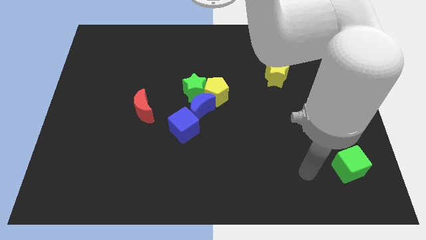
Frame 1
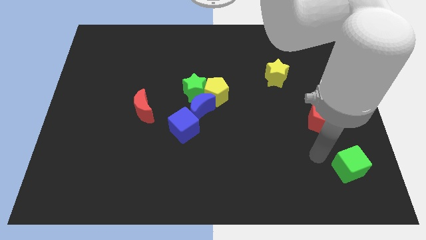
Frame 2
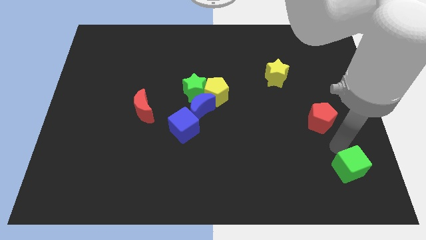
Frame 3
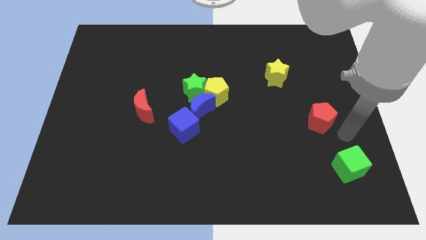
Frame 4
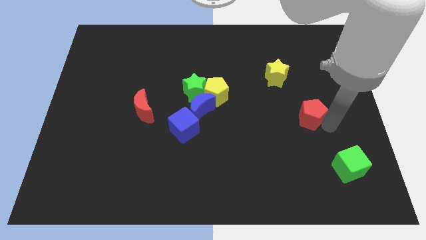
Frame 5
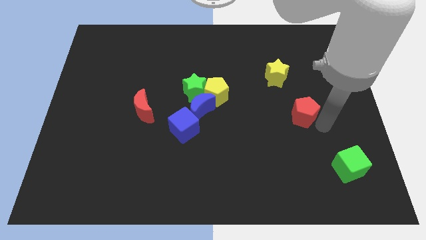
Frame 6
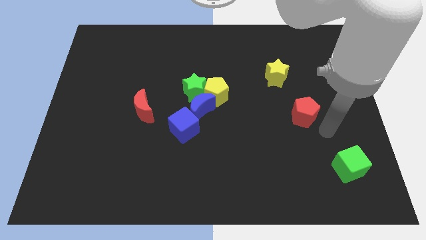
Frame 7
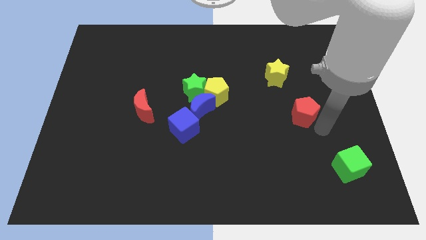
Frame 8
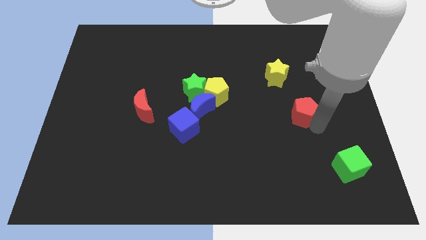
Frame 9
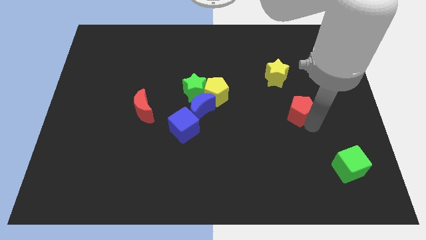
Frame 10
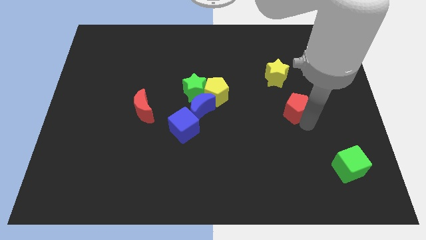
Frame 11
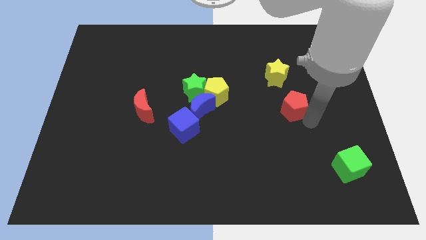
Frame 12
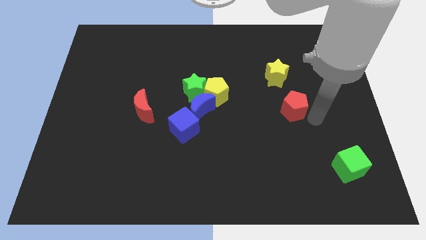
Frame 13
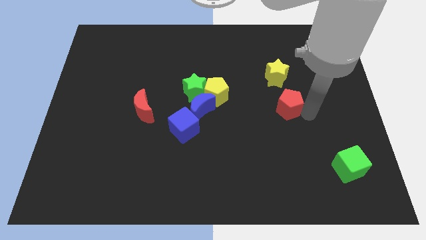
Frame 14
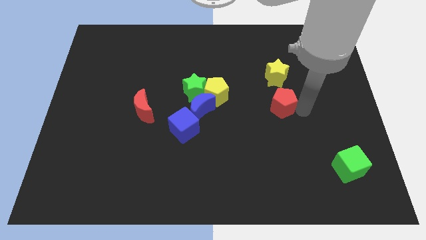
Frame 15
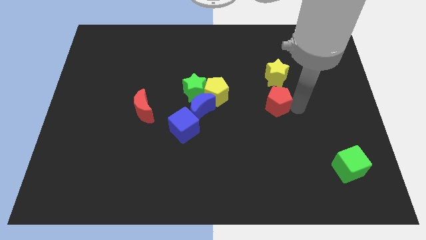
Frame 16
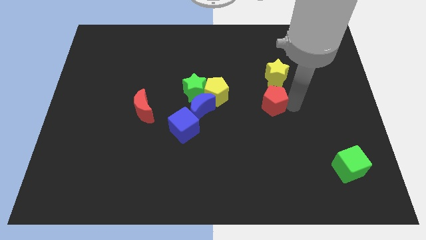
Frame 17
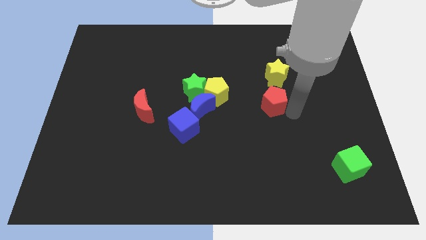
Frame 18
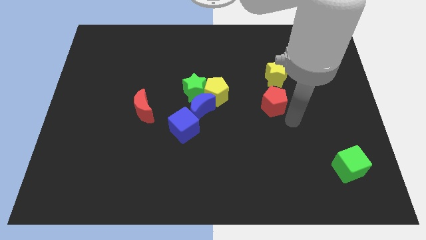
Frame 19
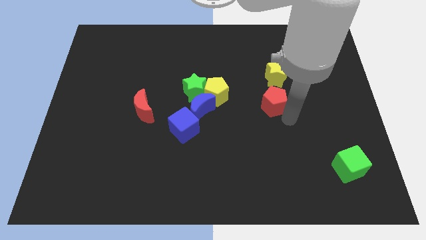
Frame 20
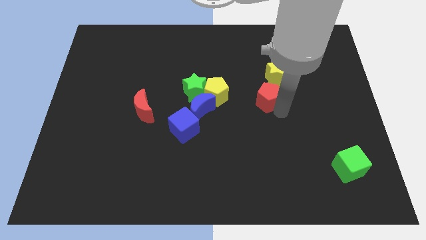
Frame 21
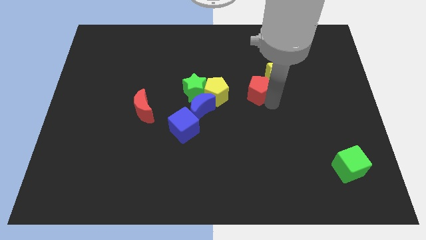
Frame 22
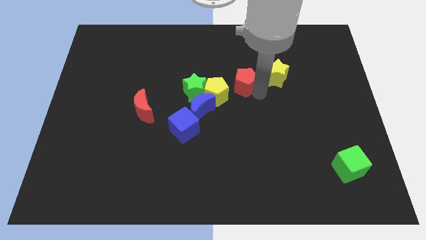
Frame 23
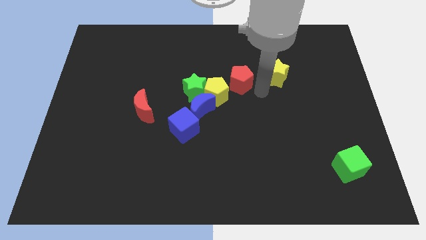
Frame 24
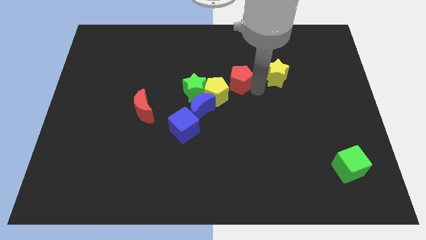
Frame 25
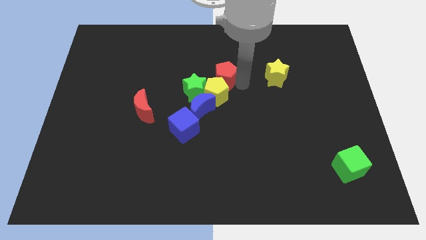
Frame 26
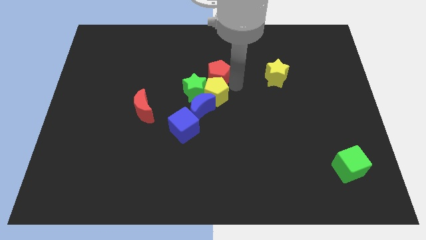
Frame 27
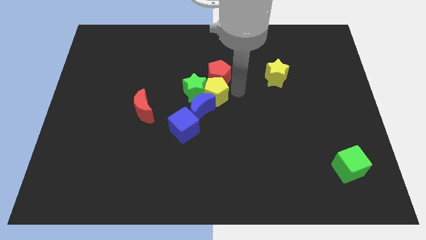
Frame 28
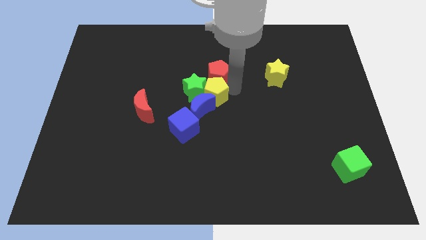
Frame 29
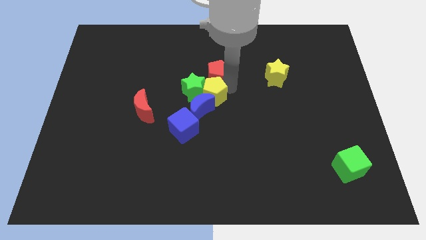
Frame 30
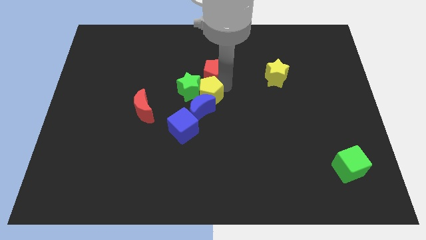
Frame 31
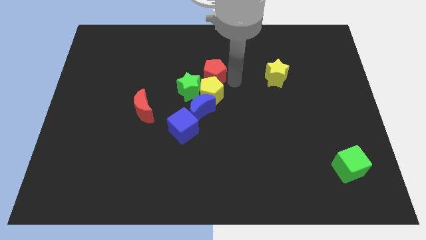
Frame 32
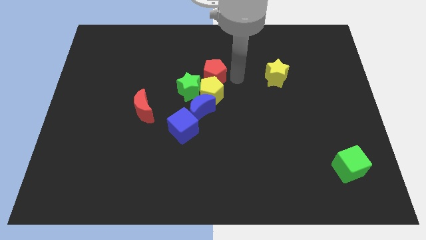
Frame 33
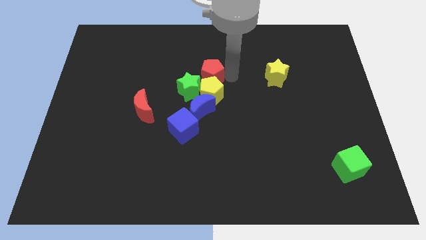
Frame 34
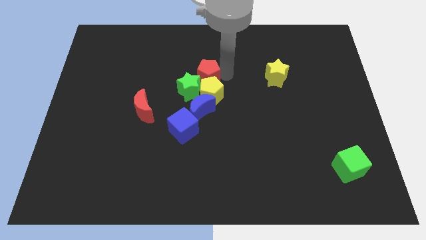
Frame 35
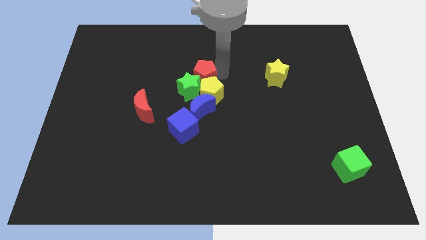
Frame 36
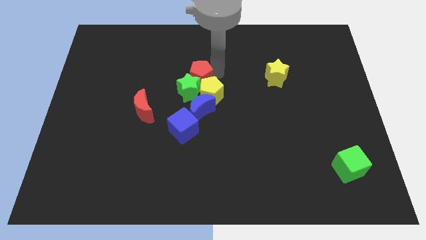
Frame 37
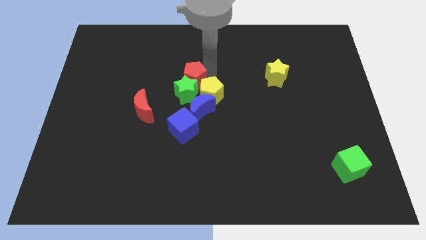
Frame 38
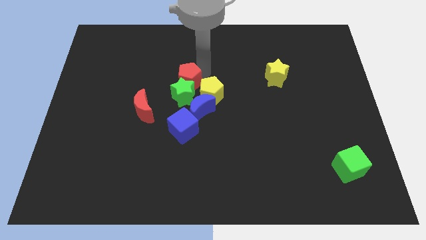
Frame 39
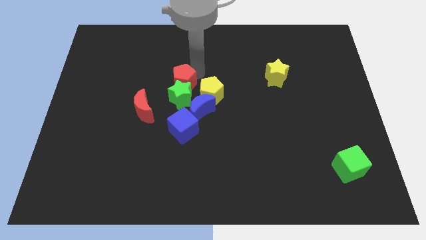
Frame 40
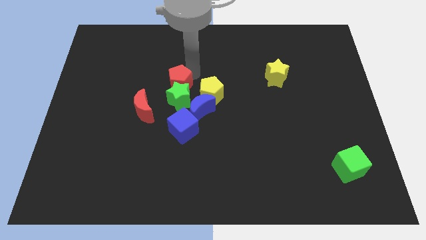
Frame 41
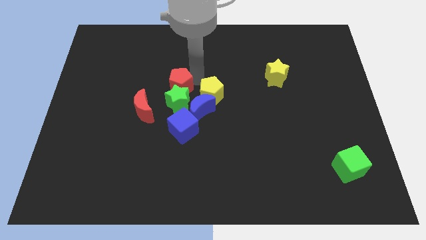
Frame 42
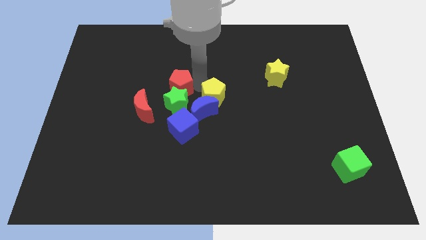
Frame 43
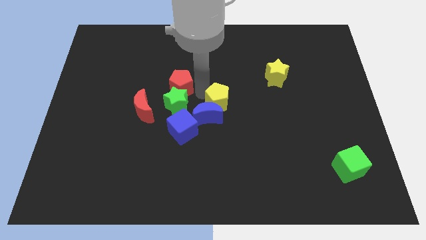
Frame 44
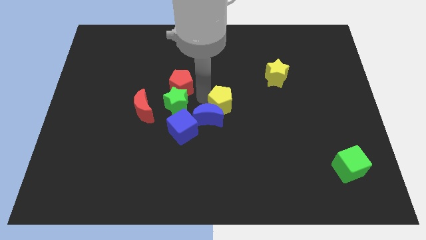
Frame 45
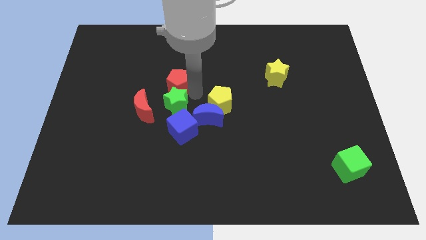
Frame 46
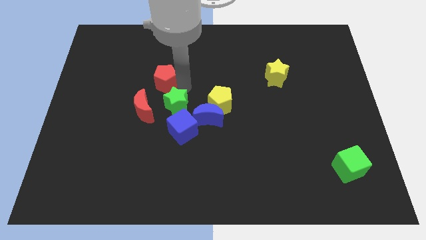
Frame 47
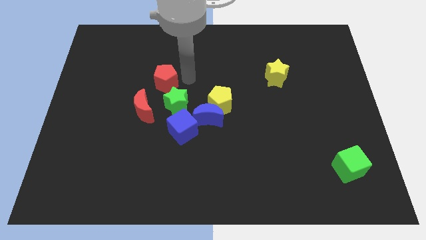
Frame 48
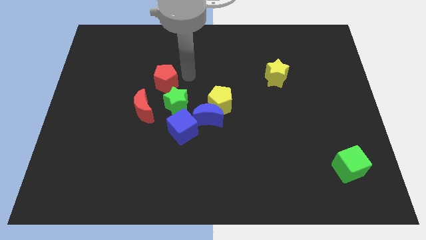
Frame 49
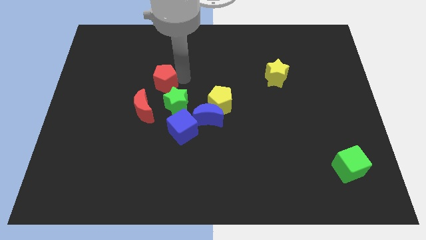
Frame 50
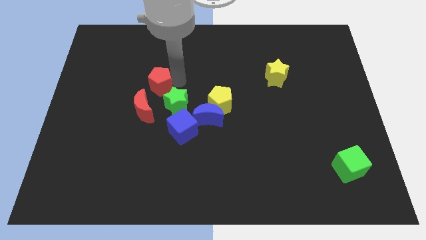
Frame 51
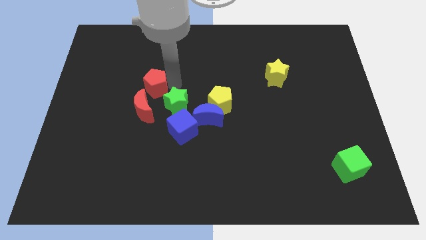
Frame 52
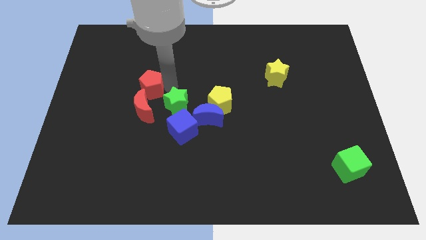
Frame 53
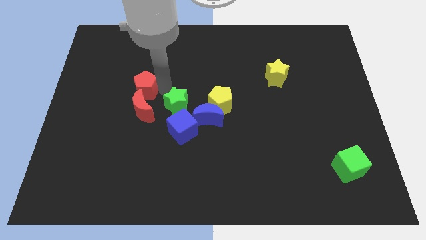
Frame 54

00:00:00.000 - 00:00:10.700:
put the red pentagon diagonally up and to the left of the red moon

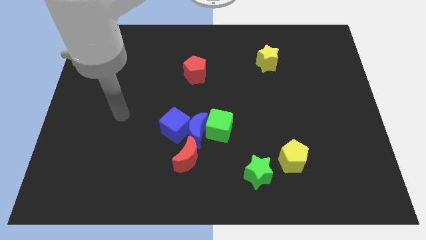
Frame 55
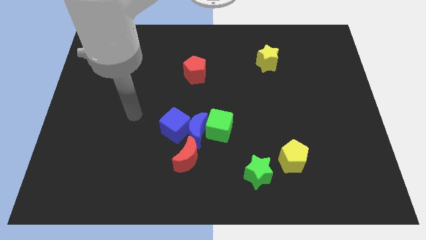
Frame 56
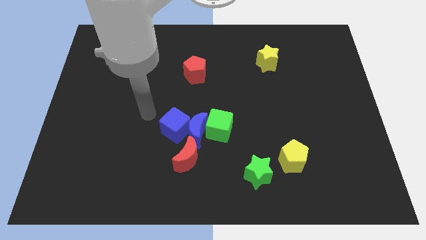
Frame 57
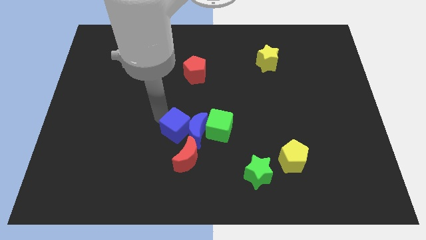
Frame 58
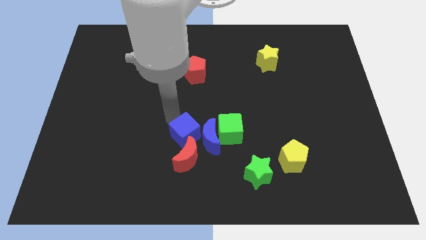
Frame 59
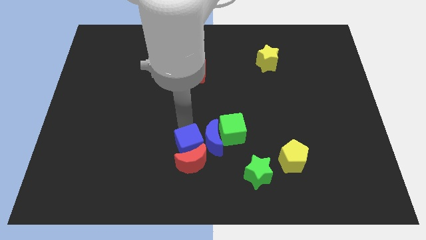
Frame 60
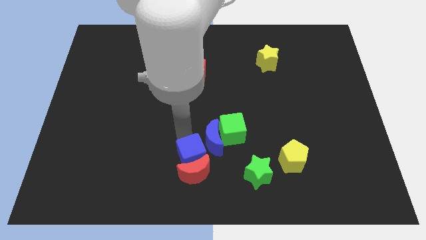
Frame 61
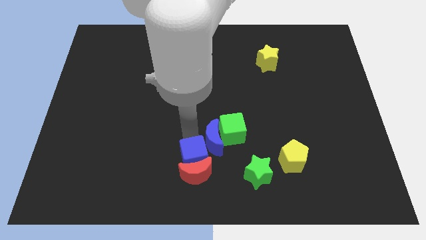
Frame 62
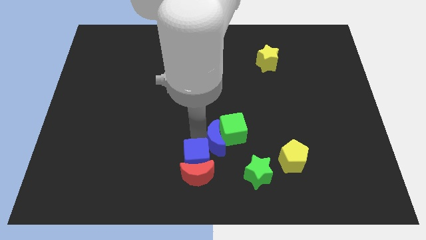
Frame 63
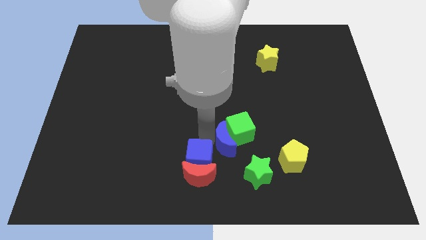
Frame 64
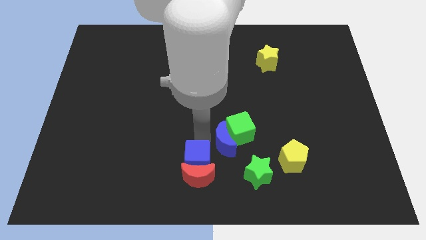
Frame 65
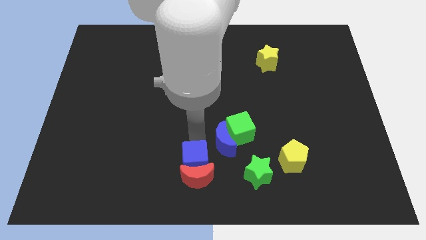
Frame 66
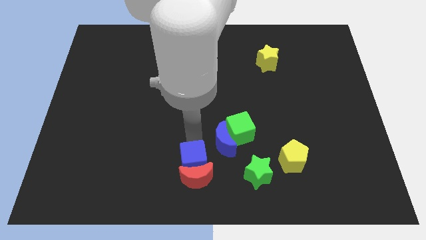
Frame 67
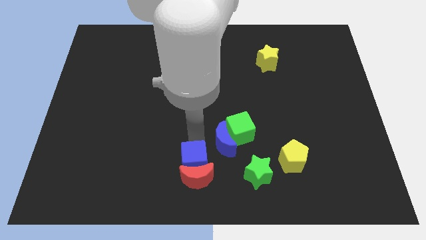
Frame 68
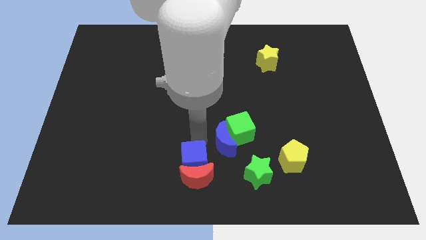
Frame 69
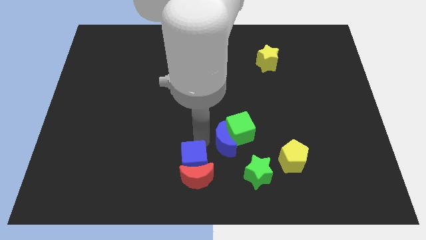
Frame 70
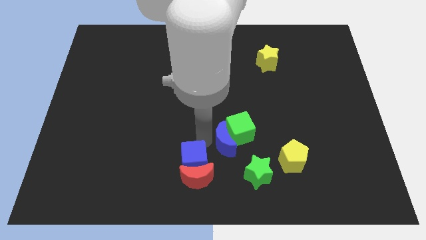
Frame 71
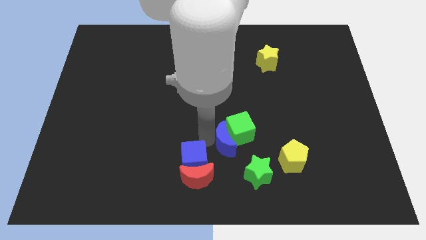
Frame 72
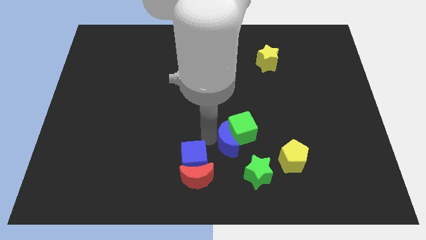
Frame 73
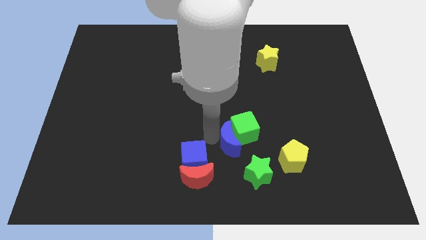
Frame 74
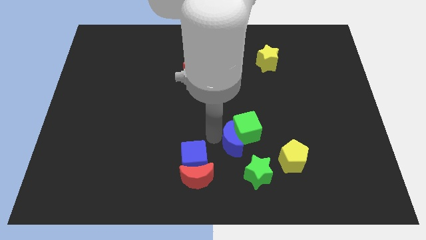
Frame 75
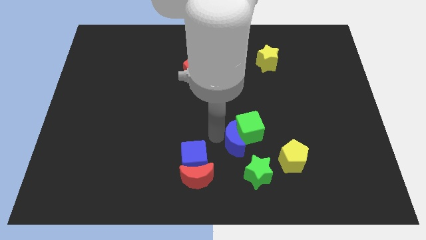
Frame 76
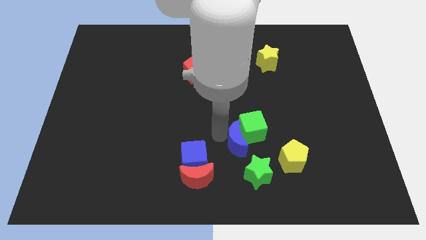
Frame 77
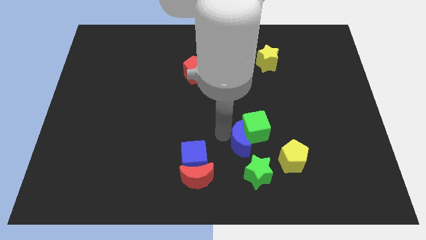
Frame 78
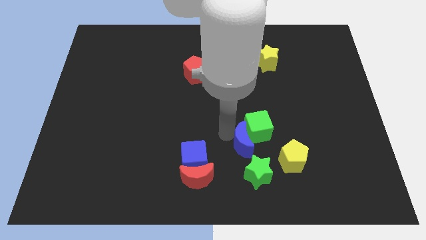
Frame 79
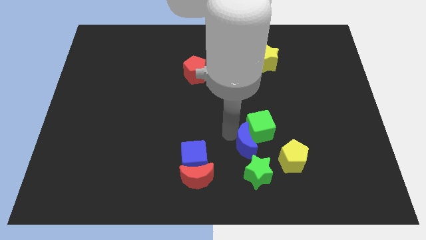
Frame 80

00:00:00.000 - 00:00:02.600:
push the blue moon to the top left side of the yellow pentagon
